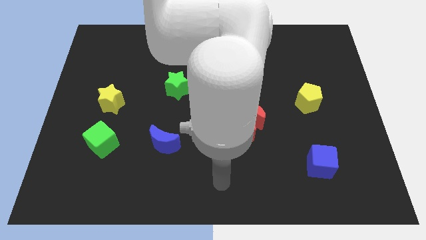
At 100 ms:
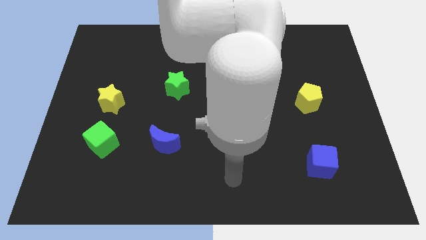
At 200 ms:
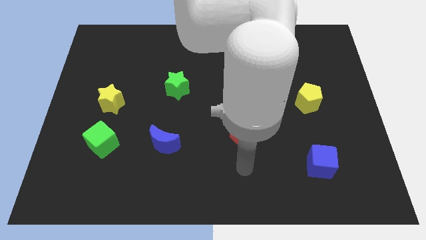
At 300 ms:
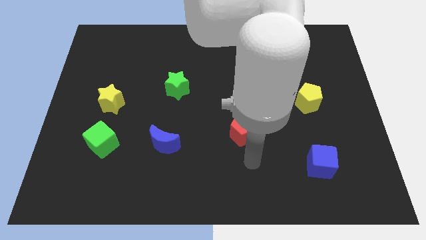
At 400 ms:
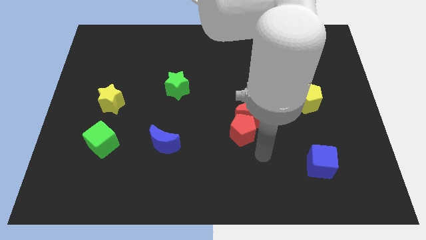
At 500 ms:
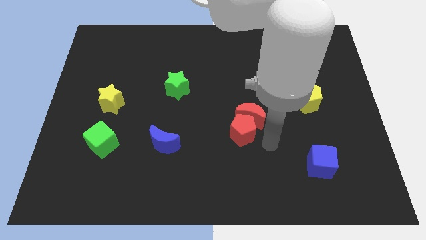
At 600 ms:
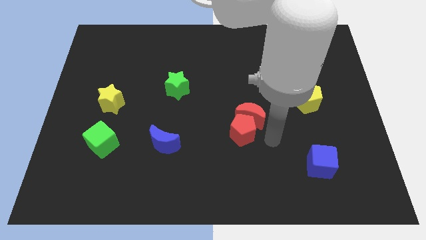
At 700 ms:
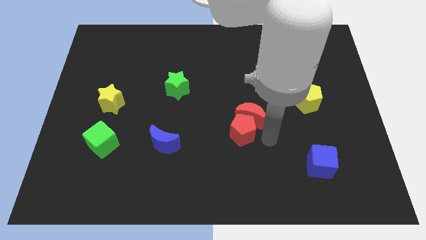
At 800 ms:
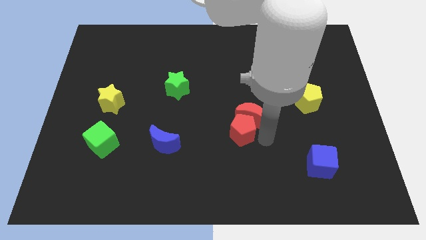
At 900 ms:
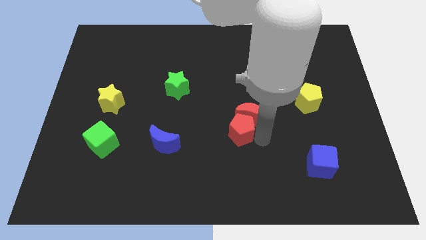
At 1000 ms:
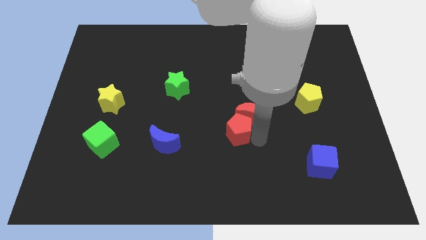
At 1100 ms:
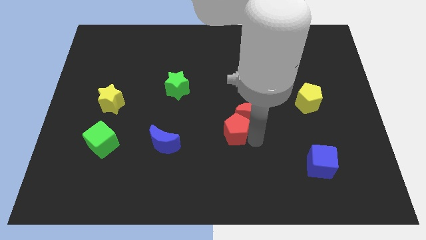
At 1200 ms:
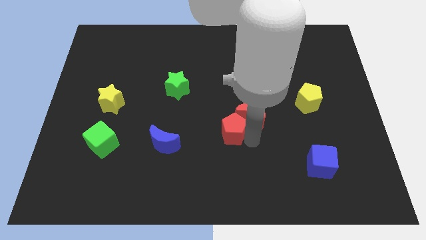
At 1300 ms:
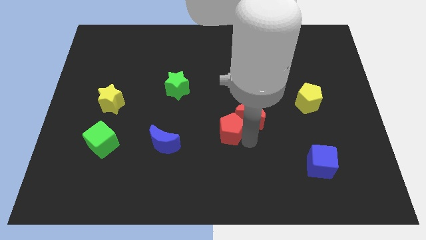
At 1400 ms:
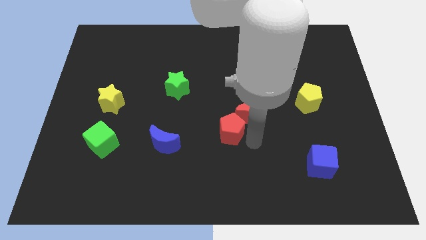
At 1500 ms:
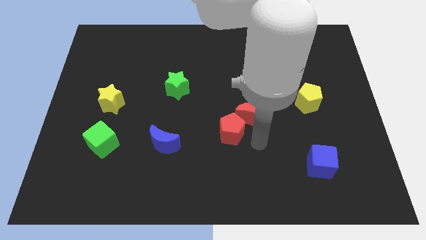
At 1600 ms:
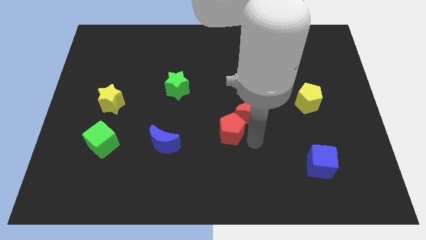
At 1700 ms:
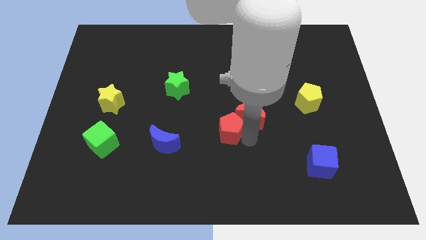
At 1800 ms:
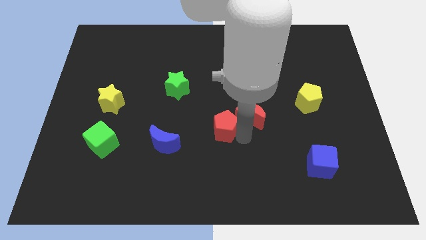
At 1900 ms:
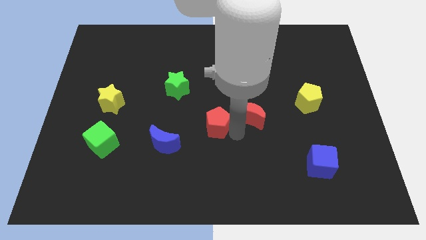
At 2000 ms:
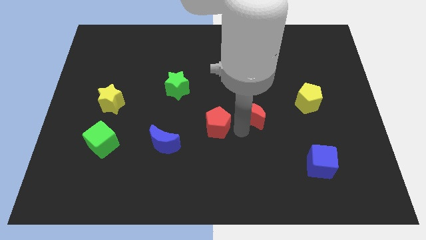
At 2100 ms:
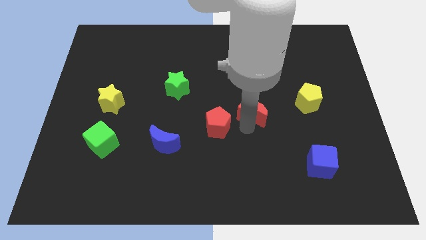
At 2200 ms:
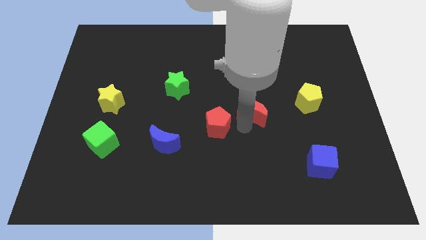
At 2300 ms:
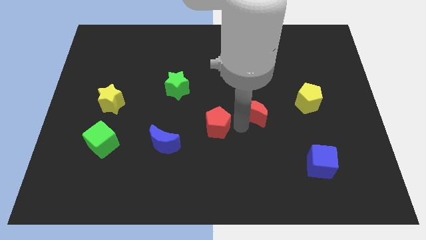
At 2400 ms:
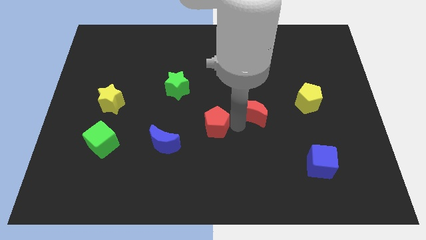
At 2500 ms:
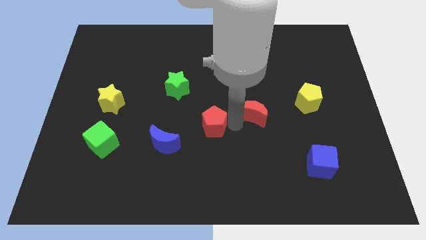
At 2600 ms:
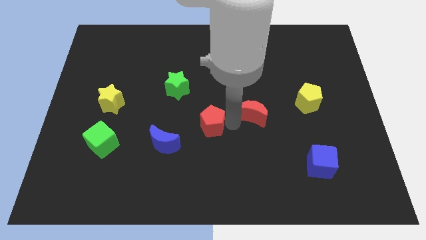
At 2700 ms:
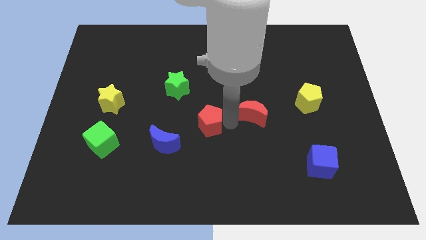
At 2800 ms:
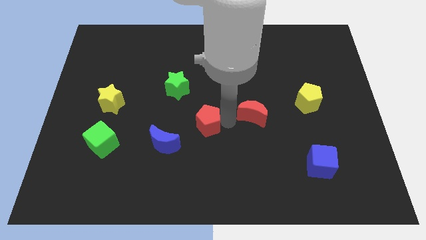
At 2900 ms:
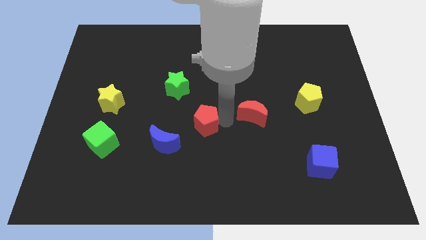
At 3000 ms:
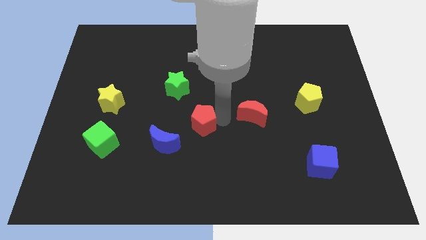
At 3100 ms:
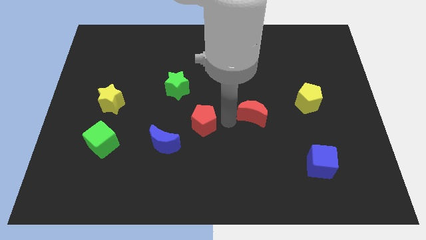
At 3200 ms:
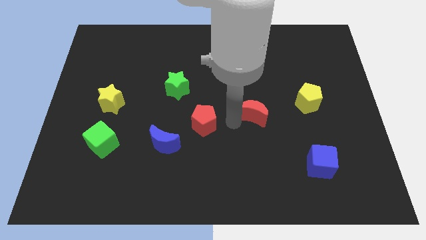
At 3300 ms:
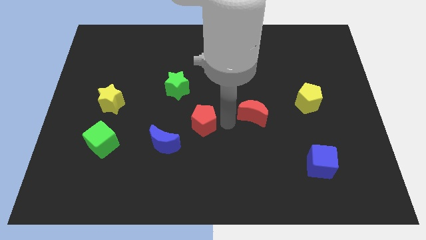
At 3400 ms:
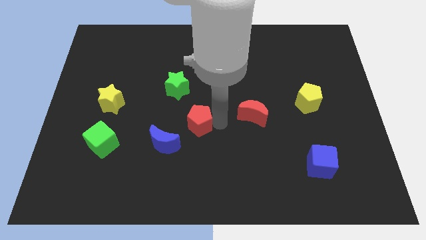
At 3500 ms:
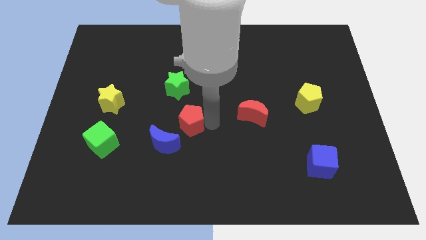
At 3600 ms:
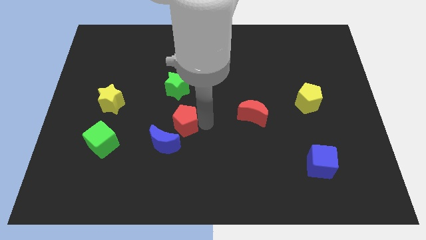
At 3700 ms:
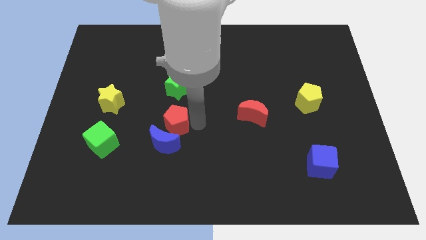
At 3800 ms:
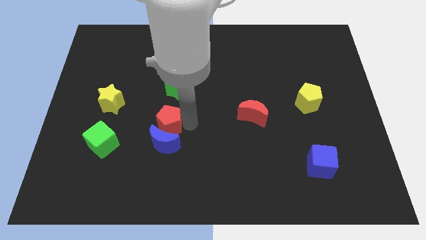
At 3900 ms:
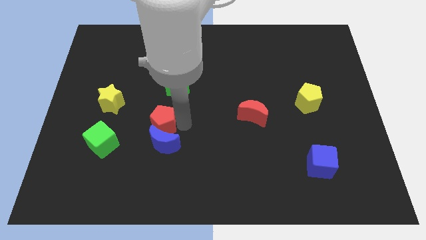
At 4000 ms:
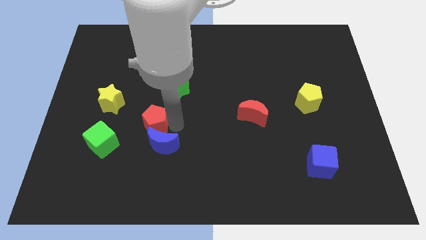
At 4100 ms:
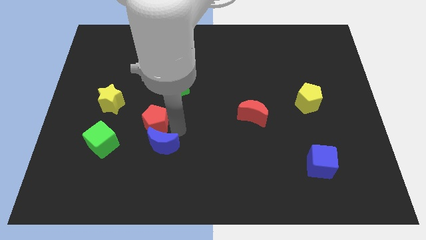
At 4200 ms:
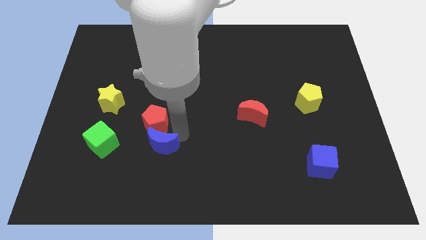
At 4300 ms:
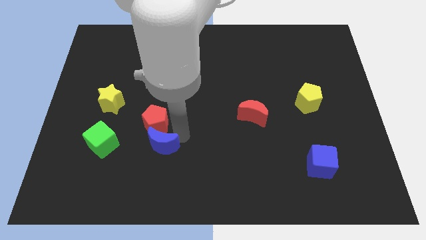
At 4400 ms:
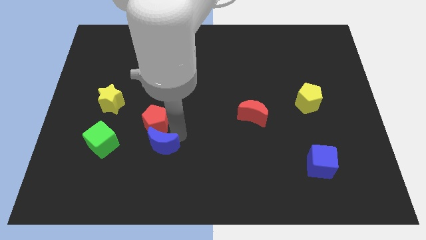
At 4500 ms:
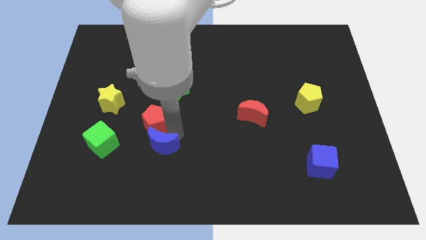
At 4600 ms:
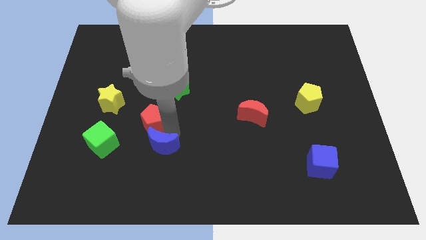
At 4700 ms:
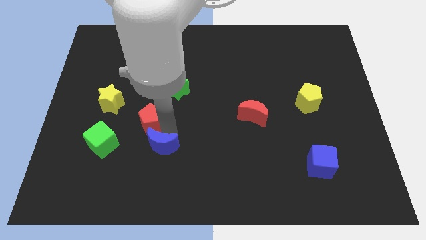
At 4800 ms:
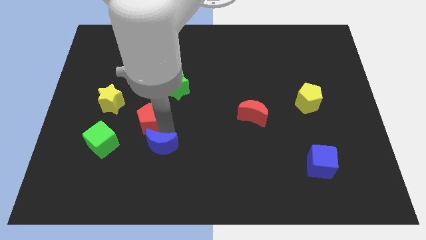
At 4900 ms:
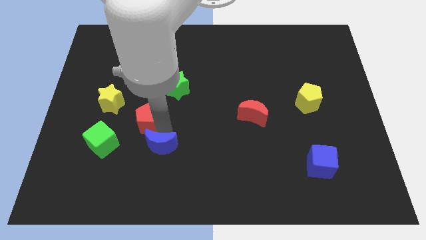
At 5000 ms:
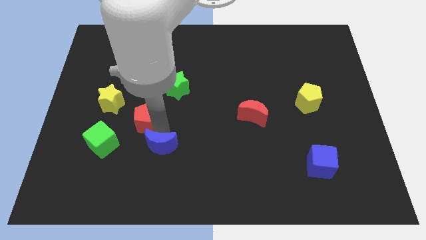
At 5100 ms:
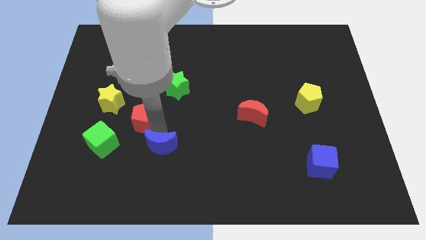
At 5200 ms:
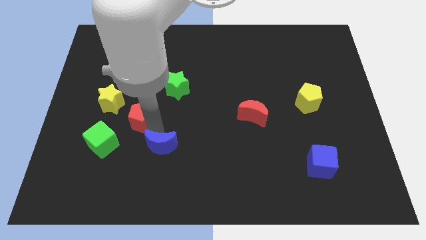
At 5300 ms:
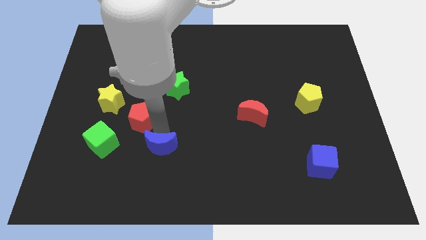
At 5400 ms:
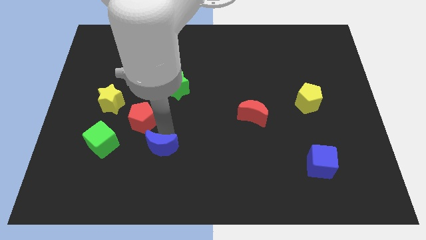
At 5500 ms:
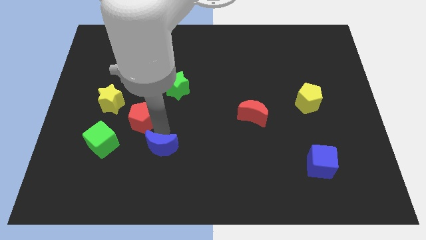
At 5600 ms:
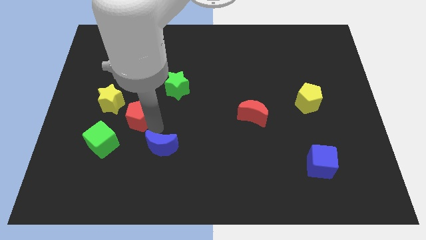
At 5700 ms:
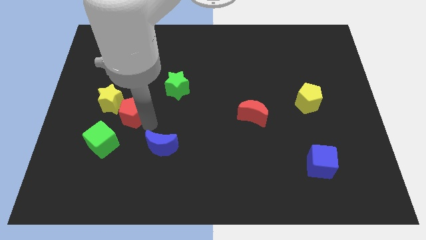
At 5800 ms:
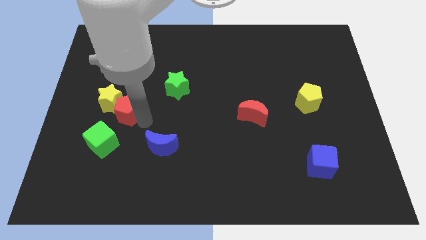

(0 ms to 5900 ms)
move the red pentagon to the yellow star

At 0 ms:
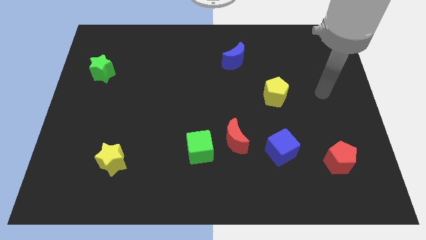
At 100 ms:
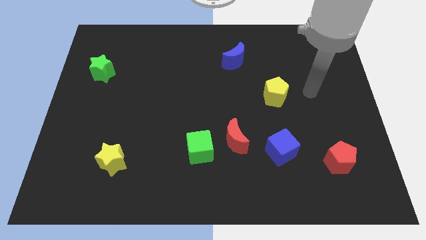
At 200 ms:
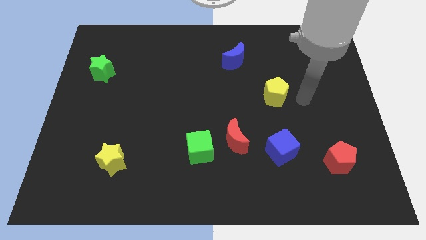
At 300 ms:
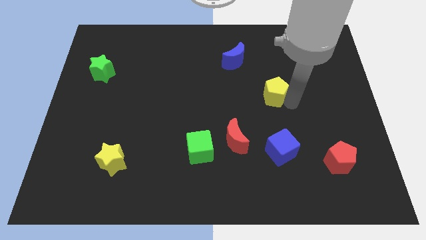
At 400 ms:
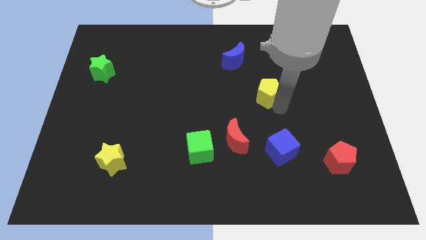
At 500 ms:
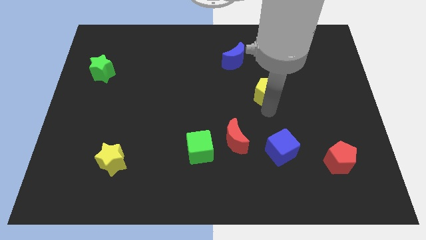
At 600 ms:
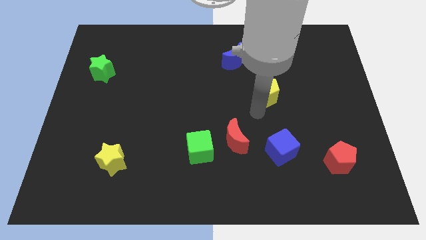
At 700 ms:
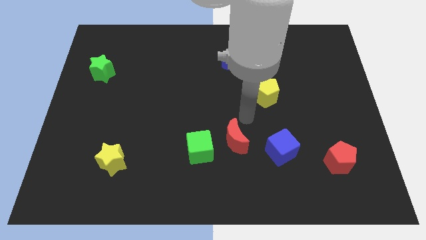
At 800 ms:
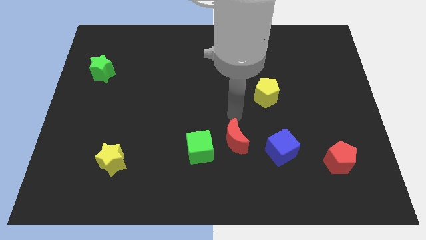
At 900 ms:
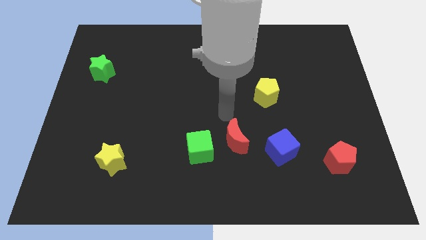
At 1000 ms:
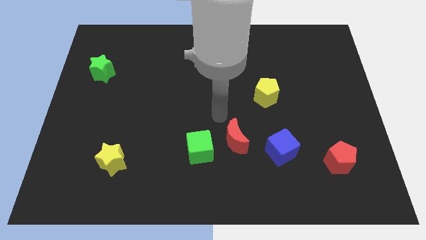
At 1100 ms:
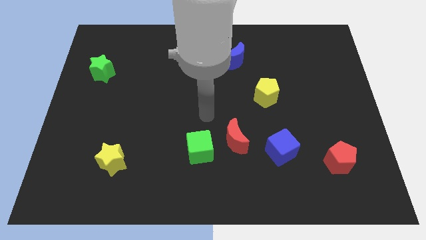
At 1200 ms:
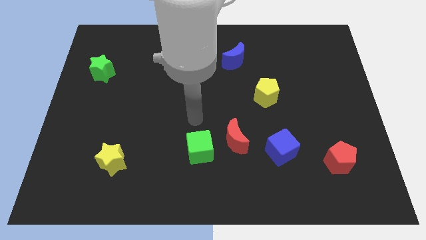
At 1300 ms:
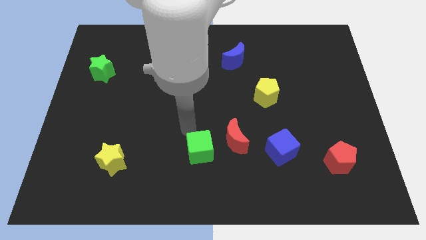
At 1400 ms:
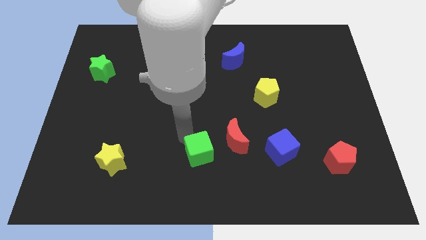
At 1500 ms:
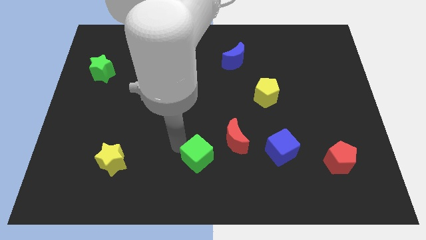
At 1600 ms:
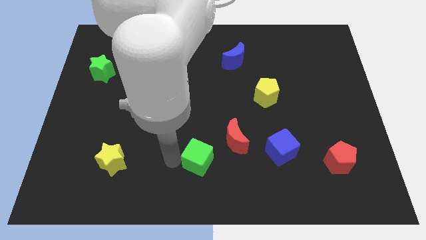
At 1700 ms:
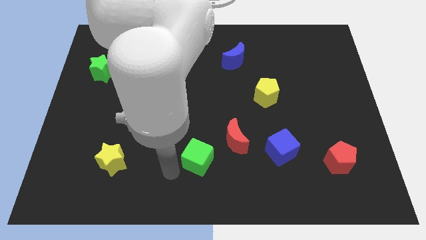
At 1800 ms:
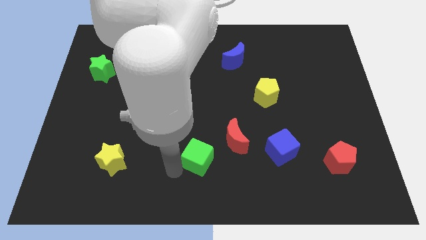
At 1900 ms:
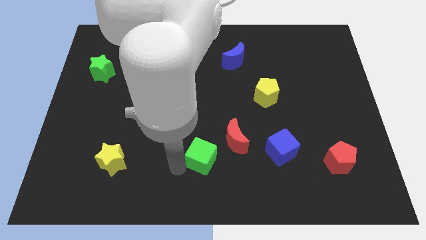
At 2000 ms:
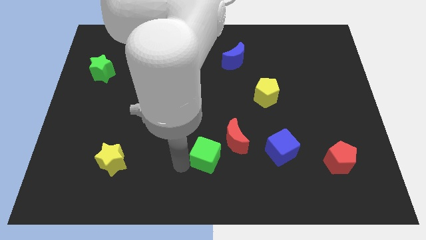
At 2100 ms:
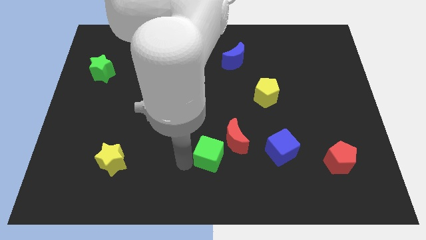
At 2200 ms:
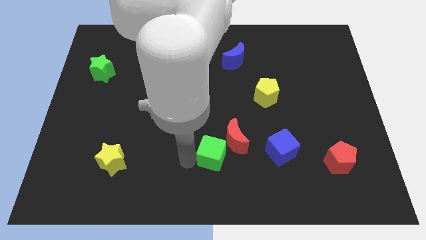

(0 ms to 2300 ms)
slide the green cube to the red moon
